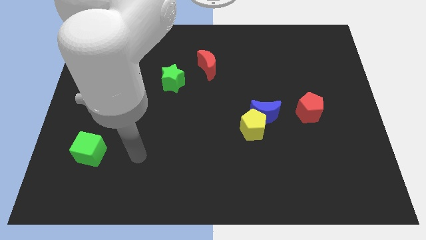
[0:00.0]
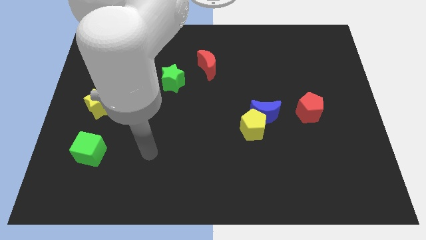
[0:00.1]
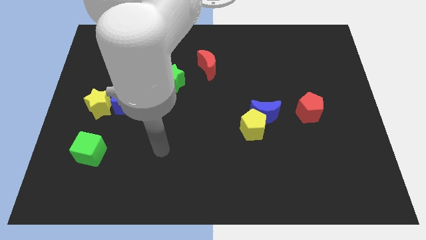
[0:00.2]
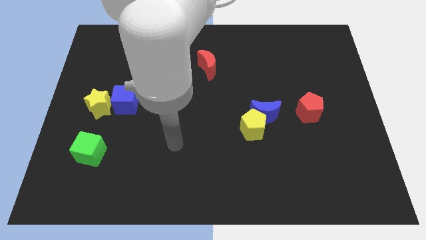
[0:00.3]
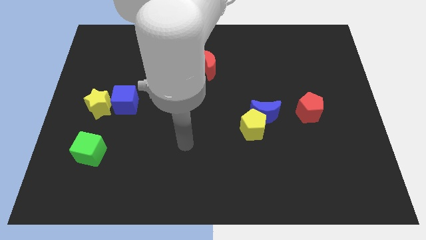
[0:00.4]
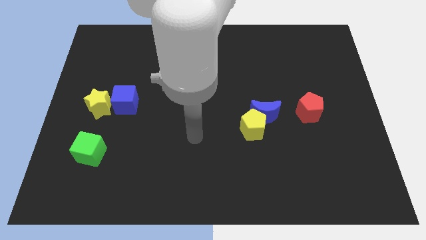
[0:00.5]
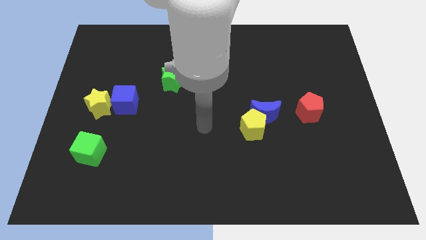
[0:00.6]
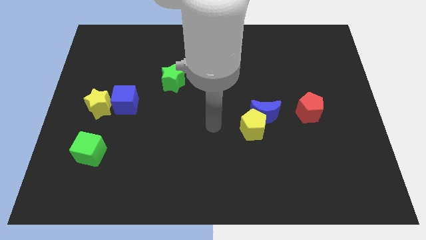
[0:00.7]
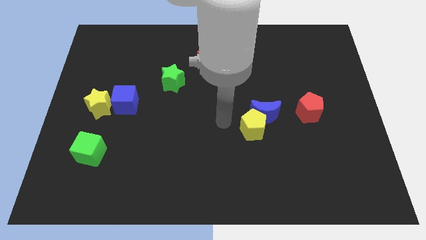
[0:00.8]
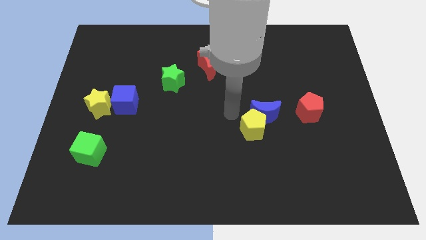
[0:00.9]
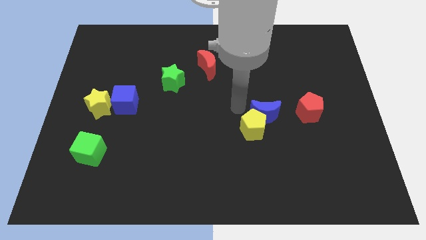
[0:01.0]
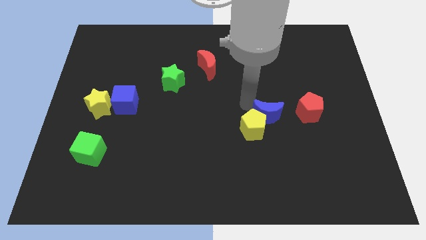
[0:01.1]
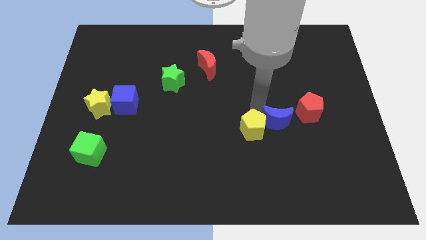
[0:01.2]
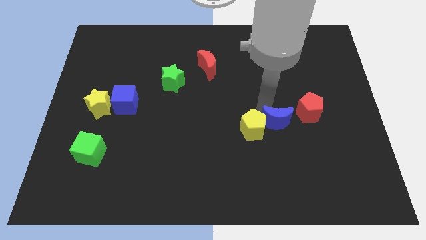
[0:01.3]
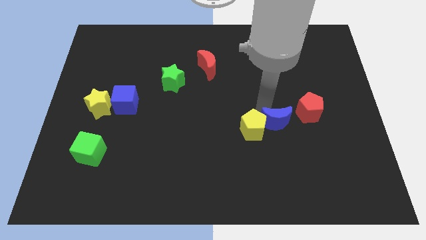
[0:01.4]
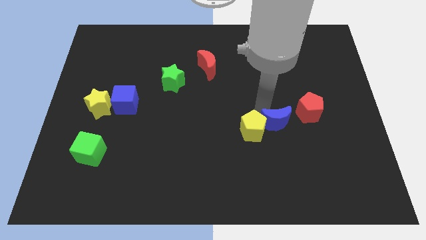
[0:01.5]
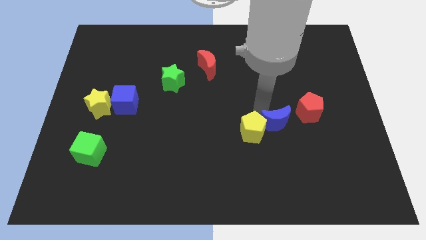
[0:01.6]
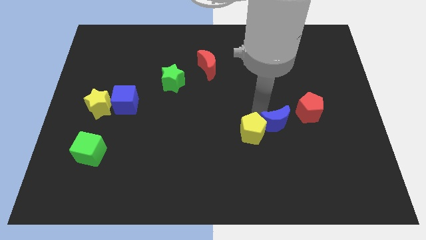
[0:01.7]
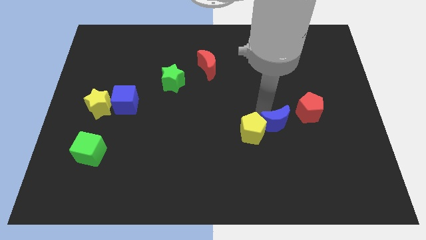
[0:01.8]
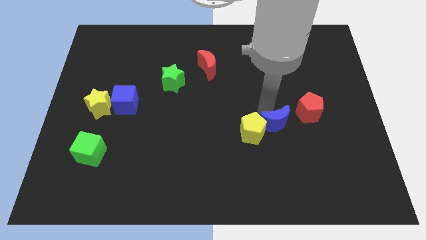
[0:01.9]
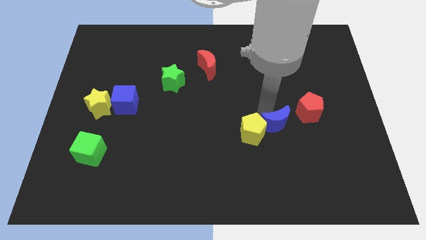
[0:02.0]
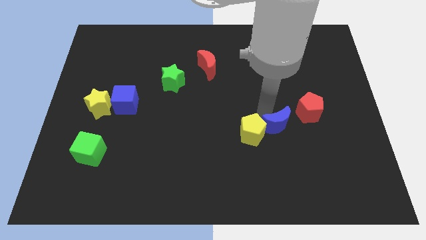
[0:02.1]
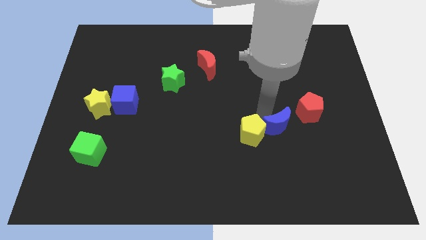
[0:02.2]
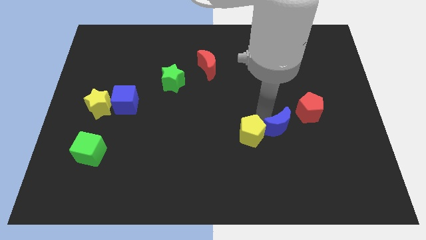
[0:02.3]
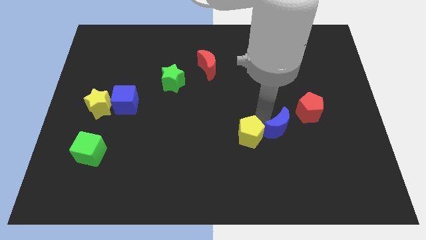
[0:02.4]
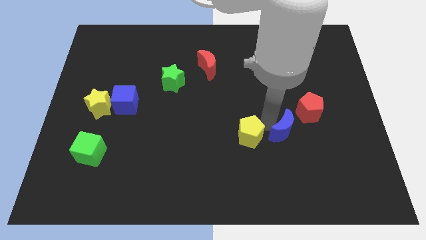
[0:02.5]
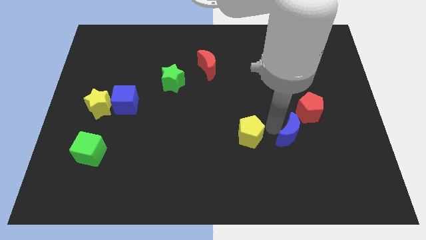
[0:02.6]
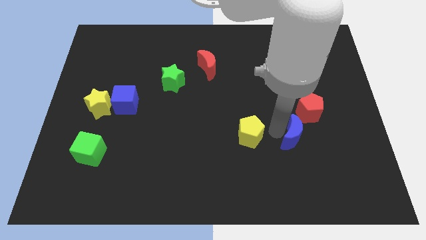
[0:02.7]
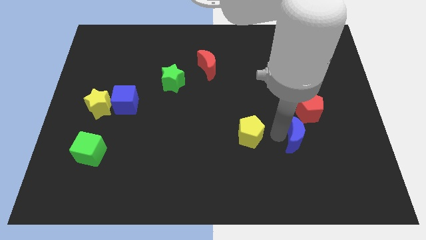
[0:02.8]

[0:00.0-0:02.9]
pull the yellow pentagon apart from the blue moon

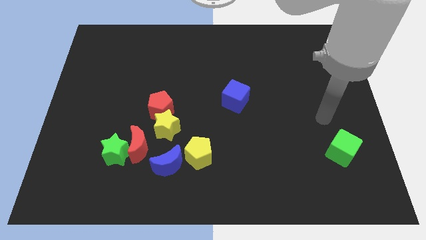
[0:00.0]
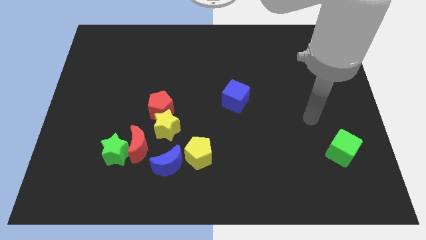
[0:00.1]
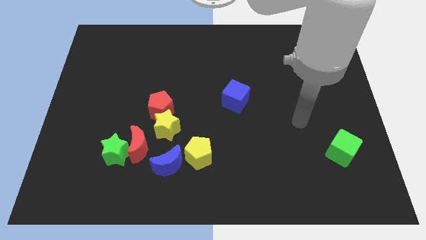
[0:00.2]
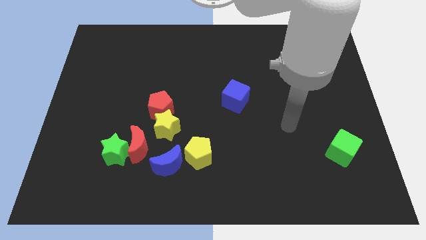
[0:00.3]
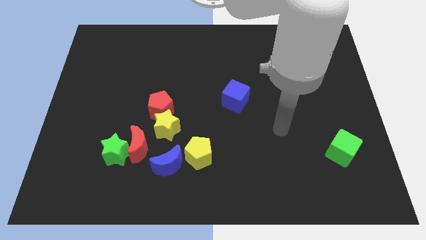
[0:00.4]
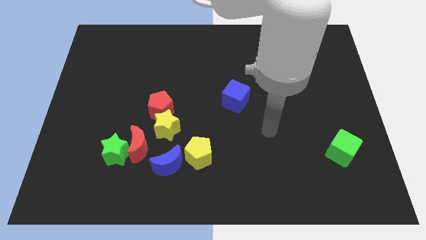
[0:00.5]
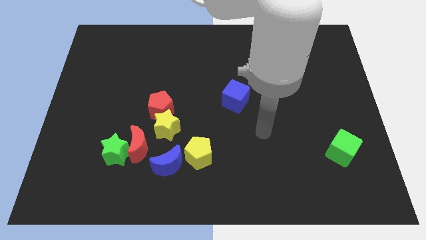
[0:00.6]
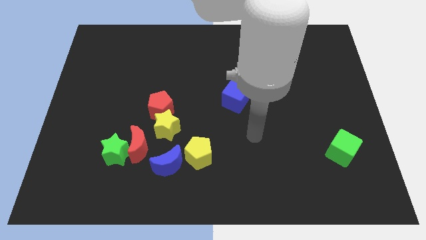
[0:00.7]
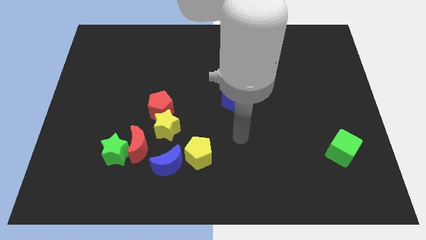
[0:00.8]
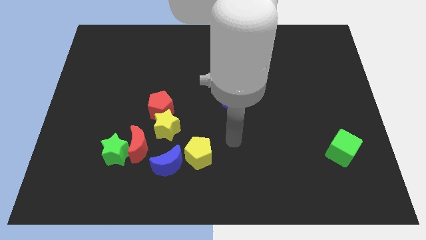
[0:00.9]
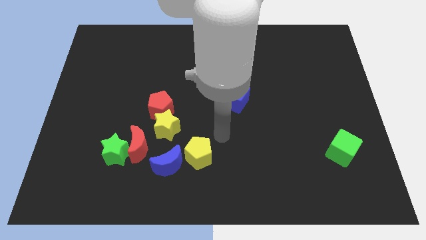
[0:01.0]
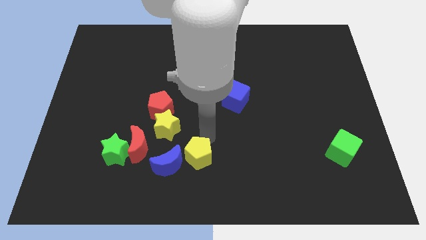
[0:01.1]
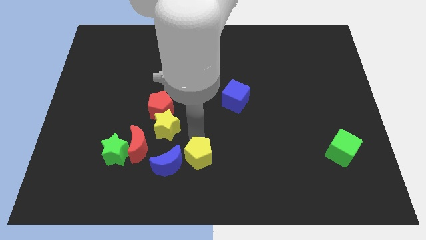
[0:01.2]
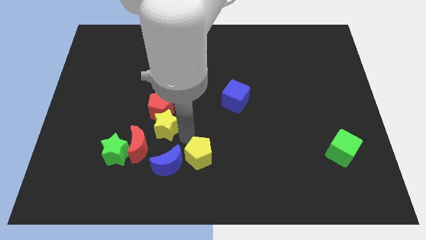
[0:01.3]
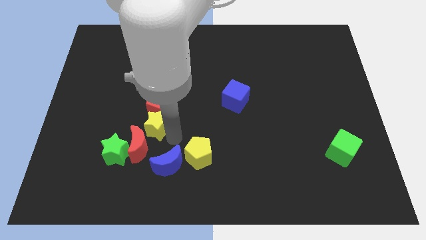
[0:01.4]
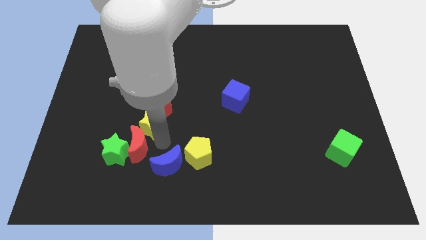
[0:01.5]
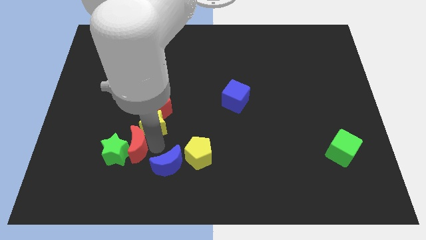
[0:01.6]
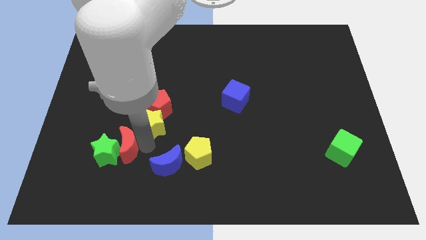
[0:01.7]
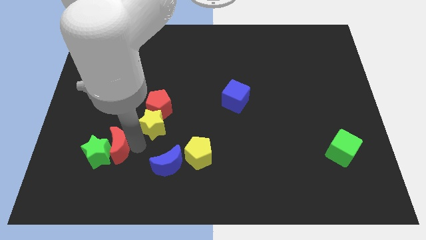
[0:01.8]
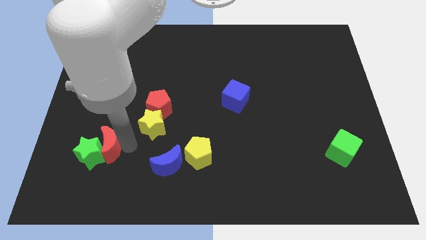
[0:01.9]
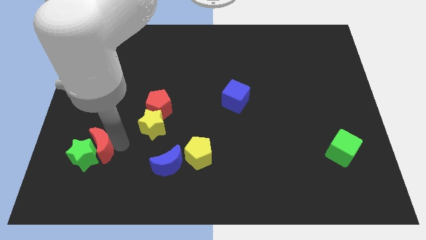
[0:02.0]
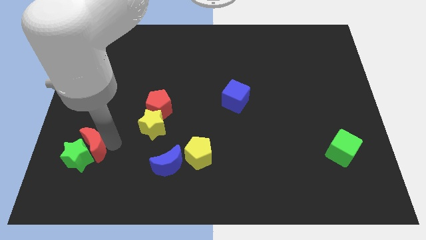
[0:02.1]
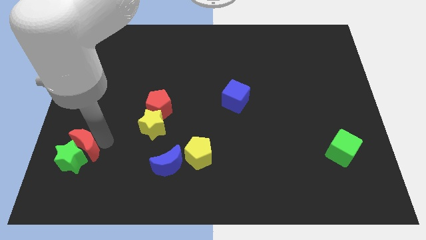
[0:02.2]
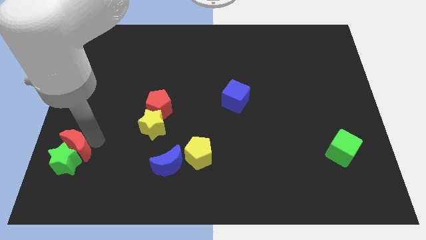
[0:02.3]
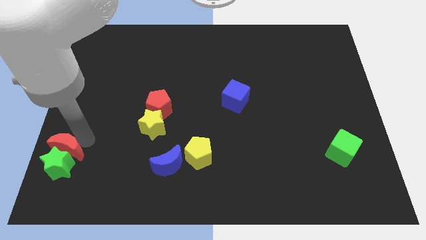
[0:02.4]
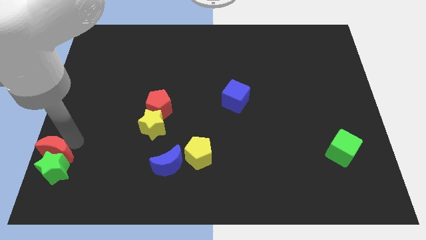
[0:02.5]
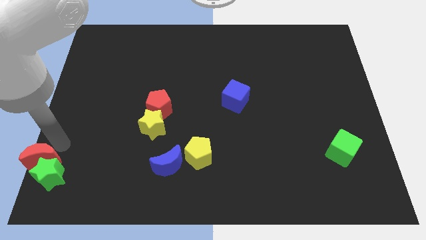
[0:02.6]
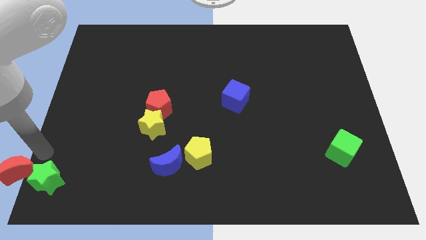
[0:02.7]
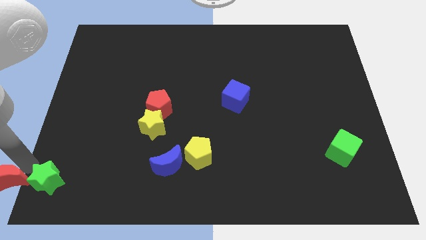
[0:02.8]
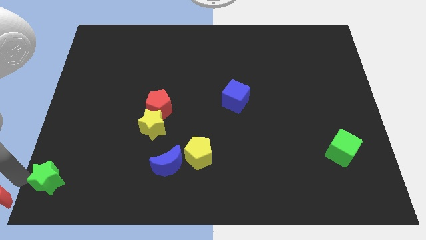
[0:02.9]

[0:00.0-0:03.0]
pull the green star apart from the red moon

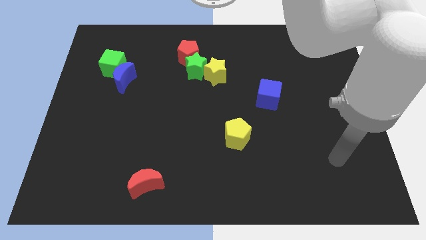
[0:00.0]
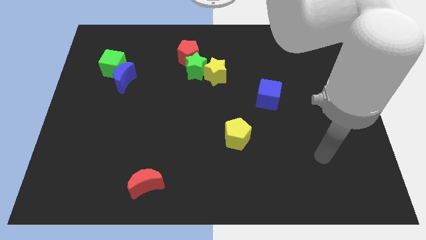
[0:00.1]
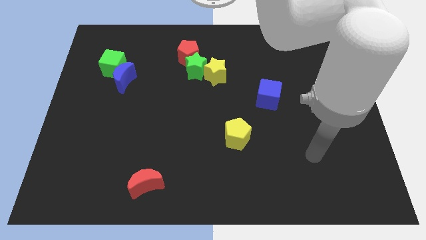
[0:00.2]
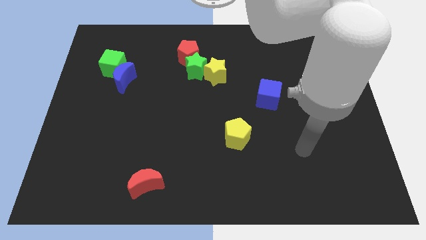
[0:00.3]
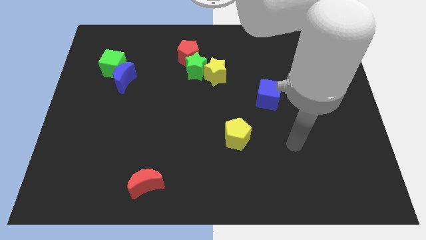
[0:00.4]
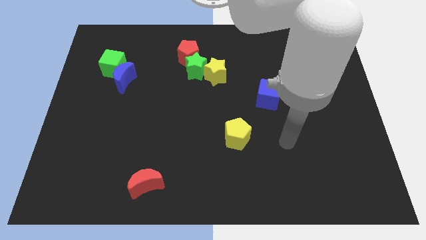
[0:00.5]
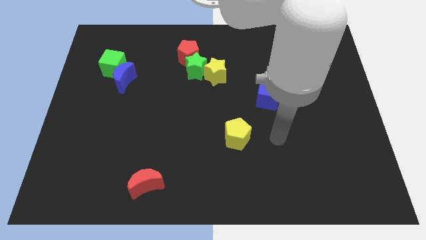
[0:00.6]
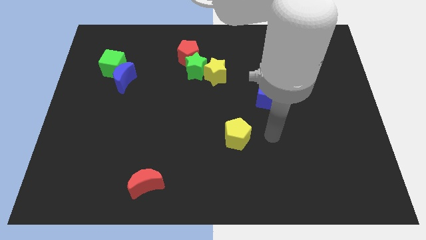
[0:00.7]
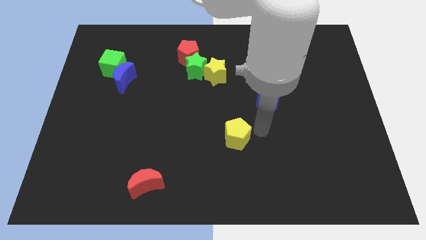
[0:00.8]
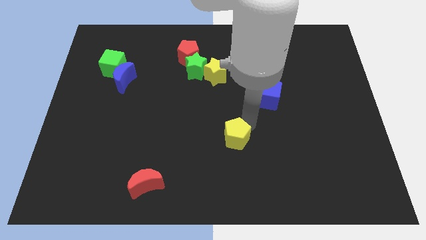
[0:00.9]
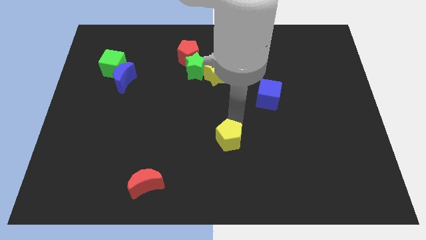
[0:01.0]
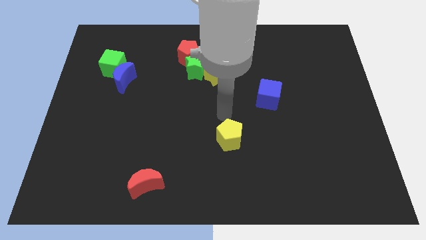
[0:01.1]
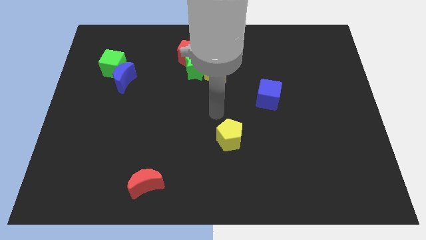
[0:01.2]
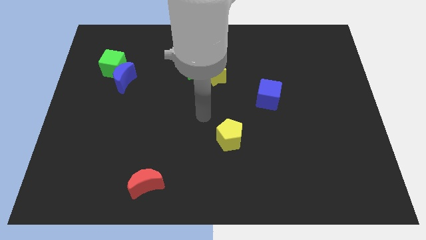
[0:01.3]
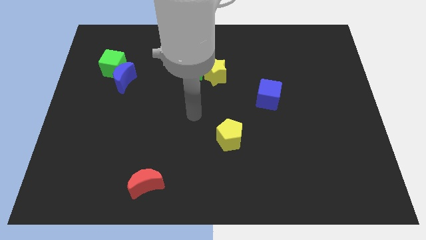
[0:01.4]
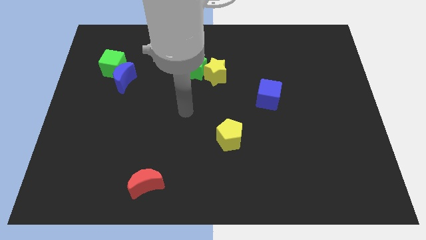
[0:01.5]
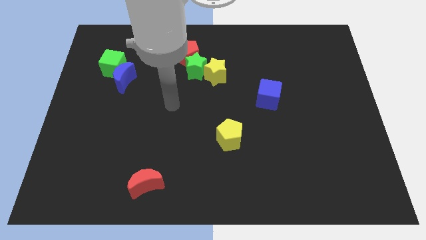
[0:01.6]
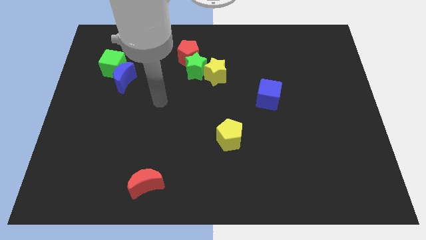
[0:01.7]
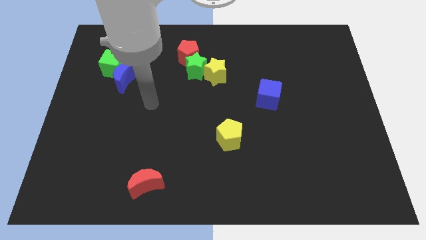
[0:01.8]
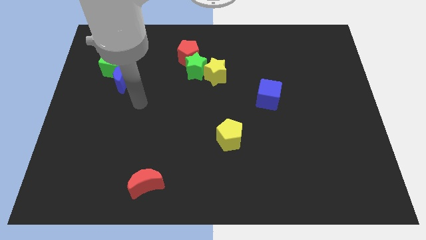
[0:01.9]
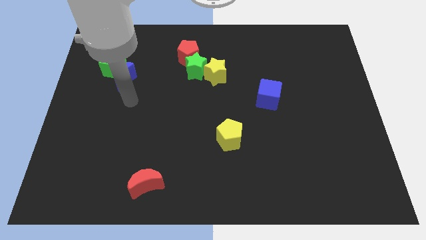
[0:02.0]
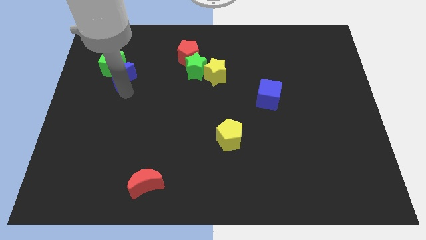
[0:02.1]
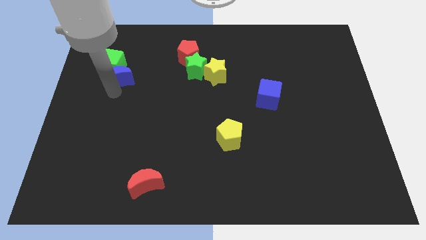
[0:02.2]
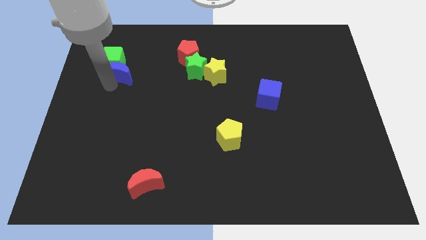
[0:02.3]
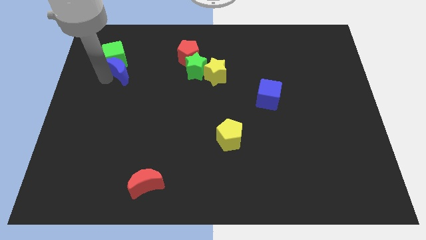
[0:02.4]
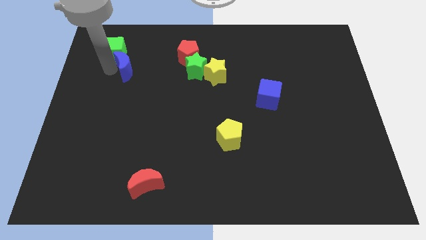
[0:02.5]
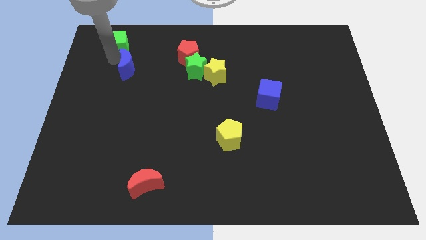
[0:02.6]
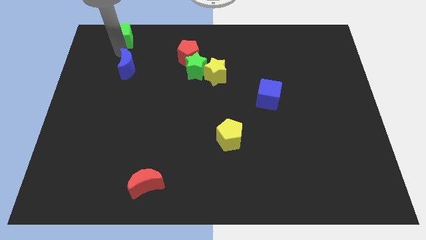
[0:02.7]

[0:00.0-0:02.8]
pull the blue moon apart from the green cube

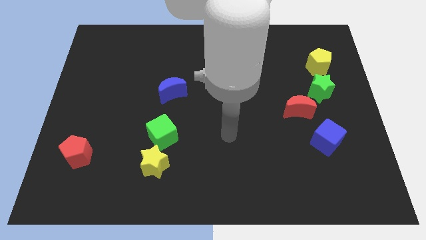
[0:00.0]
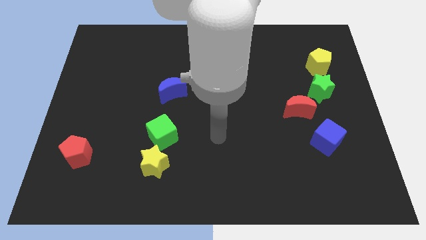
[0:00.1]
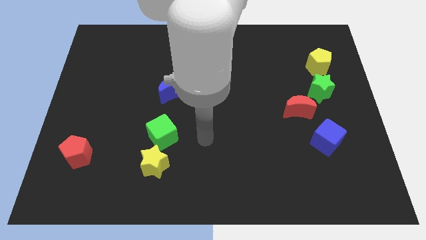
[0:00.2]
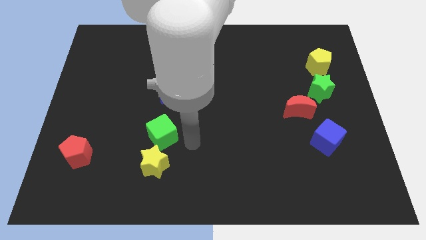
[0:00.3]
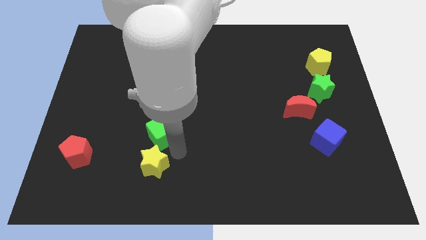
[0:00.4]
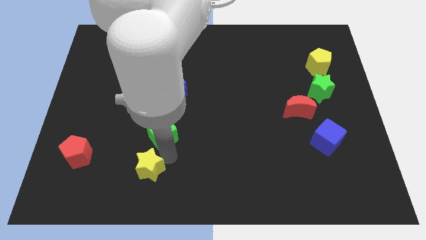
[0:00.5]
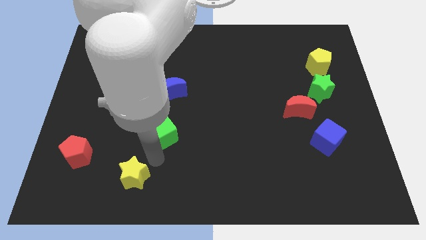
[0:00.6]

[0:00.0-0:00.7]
separate the green cube from the yellow star

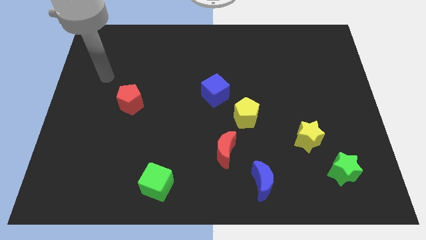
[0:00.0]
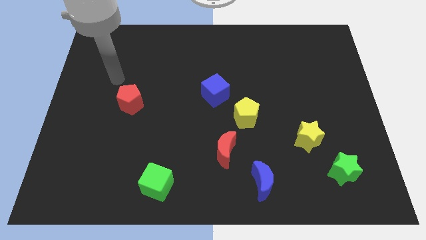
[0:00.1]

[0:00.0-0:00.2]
pull the blue cube apart from the yellow pentagon
